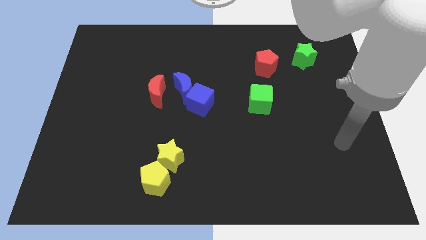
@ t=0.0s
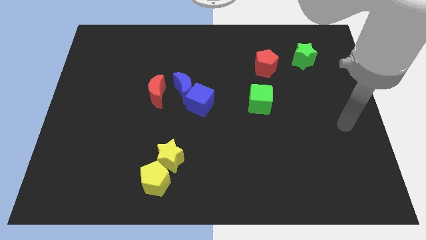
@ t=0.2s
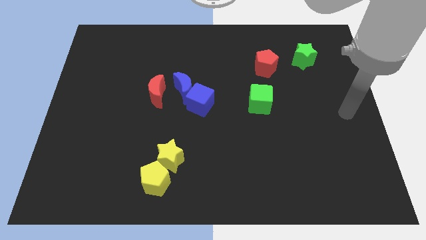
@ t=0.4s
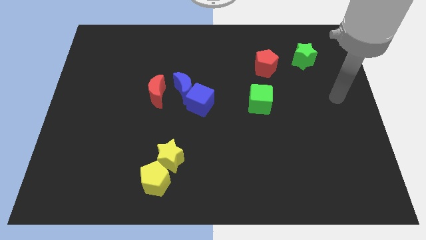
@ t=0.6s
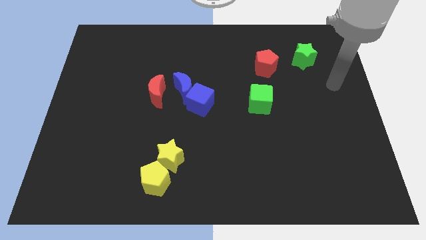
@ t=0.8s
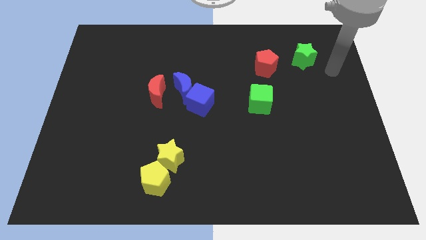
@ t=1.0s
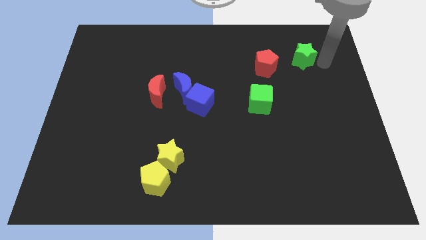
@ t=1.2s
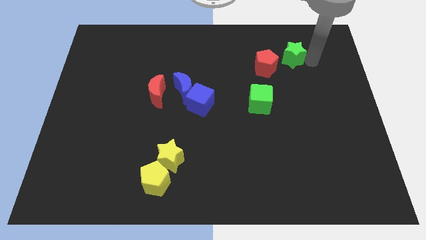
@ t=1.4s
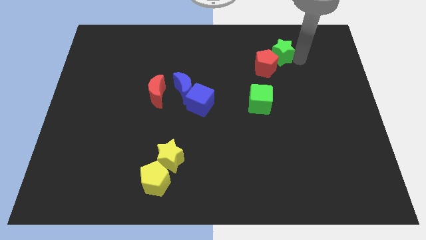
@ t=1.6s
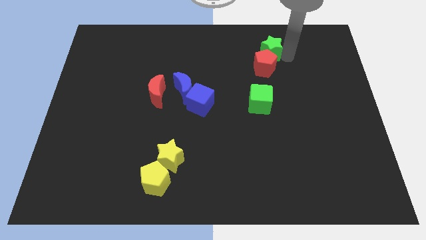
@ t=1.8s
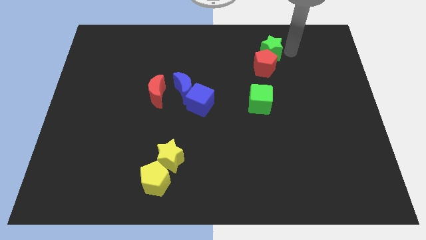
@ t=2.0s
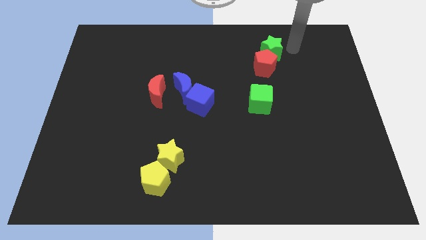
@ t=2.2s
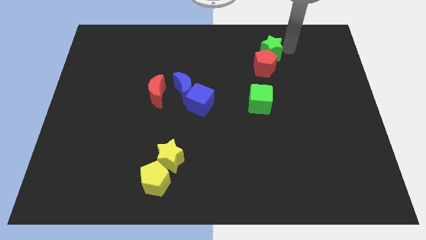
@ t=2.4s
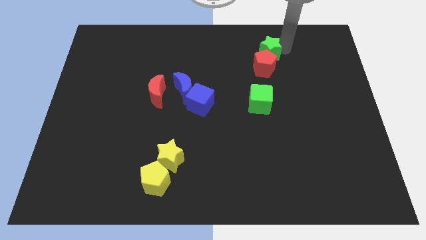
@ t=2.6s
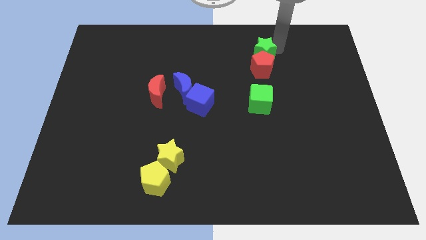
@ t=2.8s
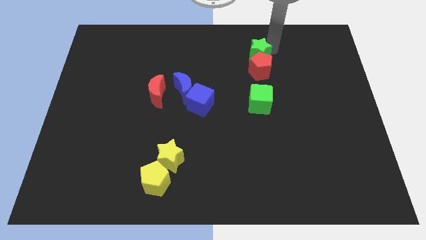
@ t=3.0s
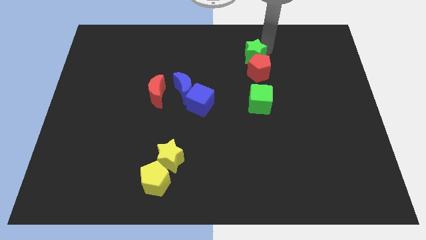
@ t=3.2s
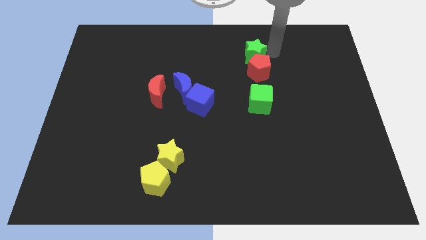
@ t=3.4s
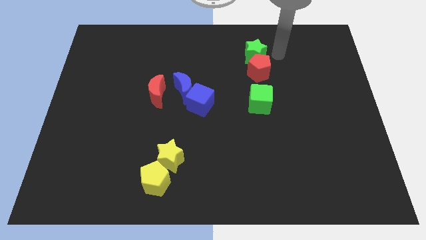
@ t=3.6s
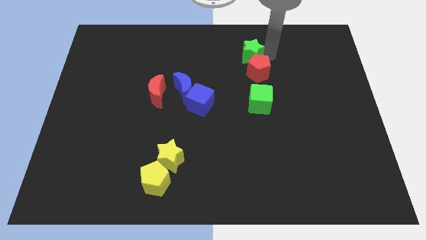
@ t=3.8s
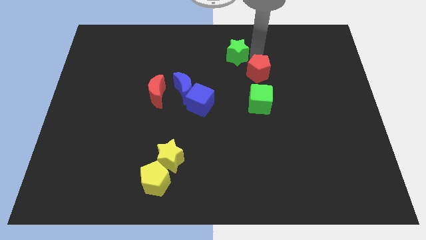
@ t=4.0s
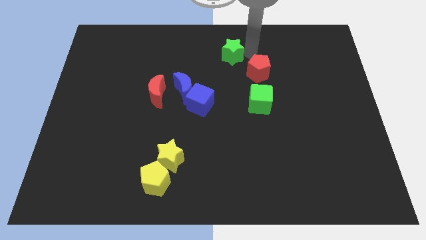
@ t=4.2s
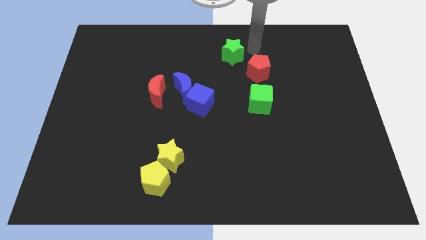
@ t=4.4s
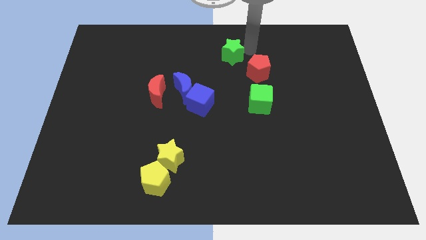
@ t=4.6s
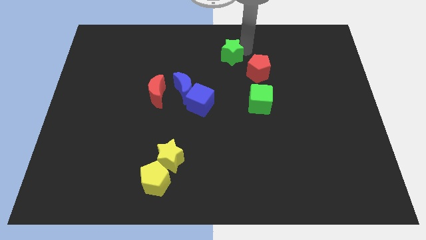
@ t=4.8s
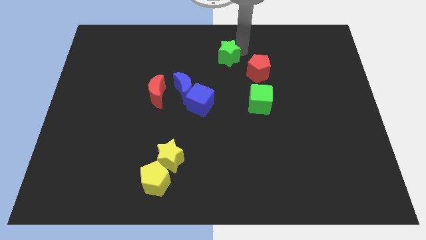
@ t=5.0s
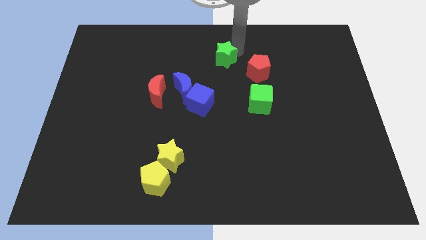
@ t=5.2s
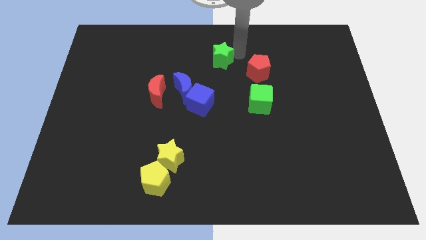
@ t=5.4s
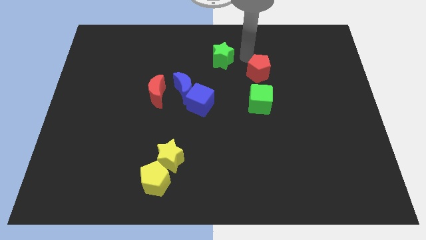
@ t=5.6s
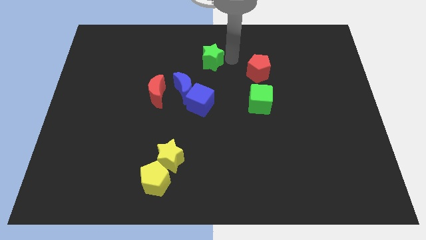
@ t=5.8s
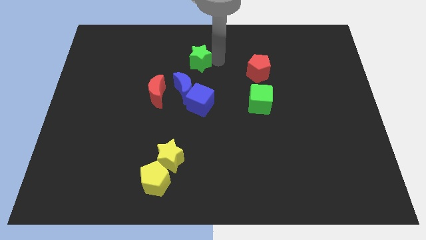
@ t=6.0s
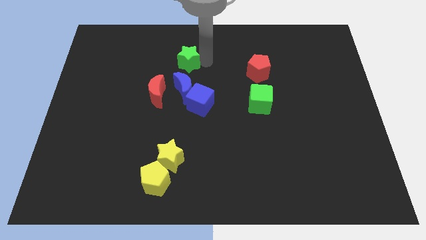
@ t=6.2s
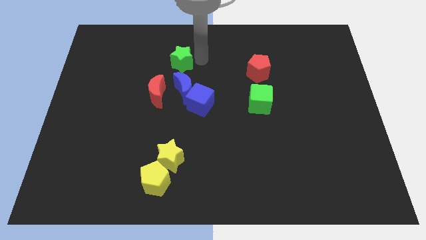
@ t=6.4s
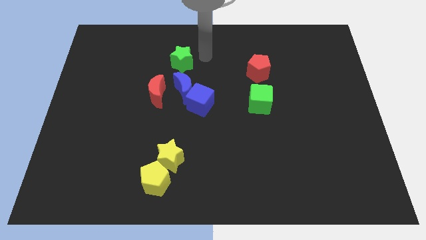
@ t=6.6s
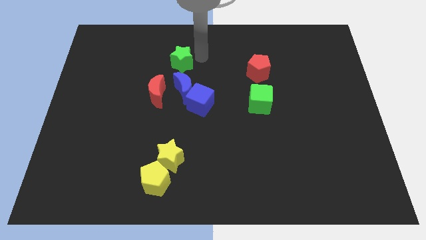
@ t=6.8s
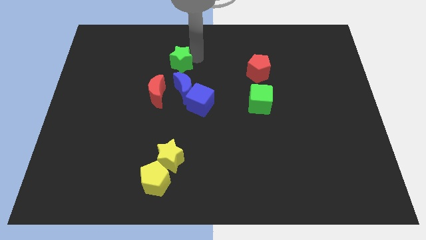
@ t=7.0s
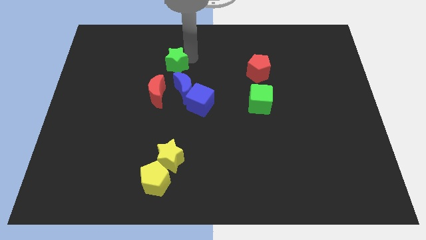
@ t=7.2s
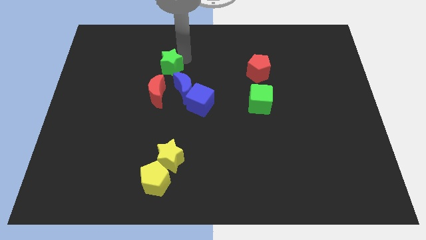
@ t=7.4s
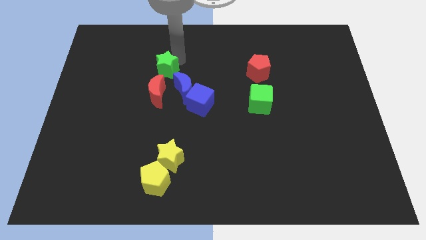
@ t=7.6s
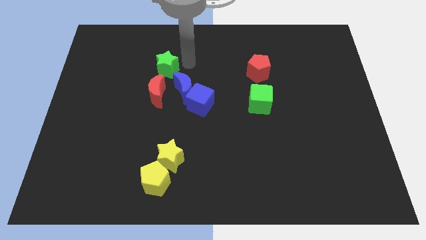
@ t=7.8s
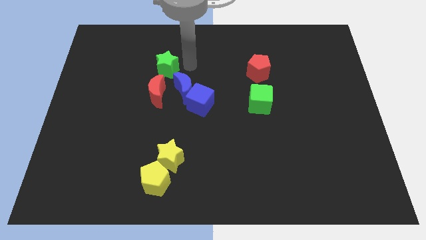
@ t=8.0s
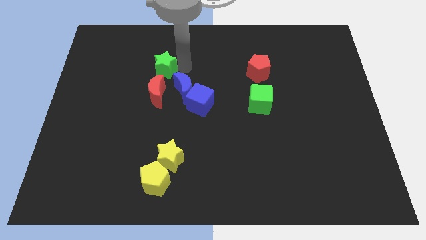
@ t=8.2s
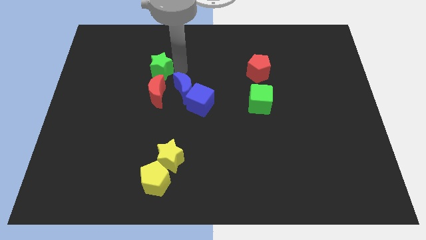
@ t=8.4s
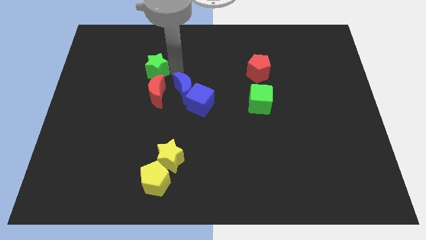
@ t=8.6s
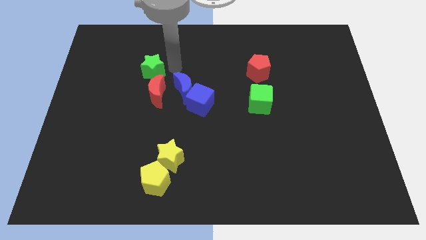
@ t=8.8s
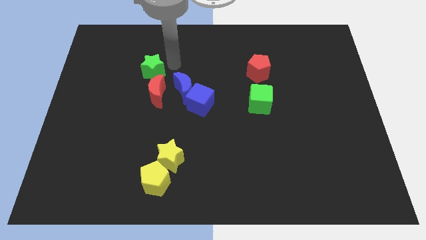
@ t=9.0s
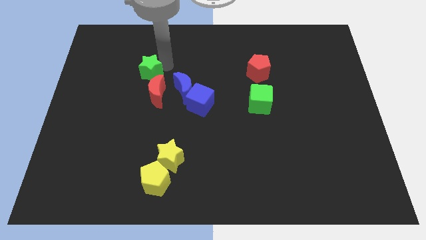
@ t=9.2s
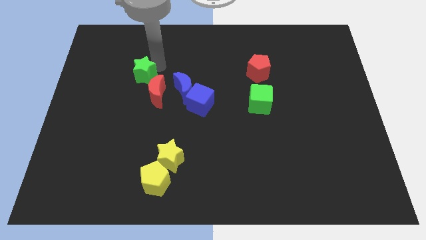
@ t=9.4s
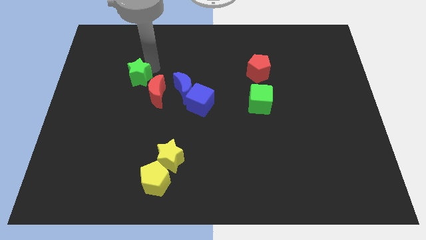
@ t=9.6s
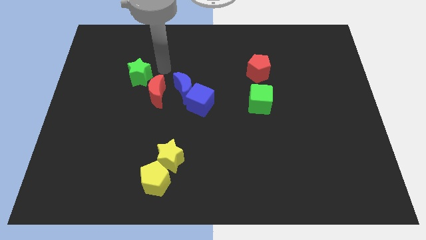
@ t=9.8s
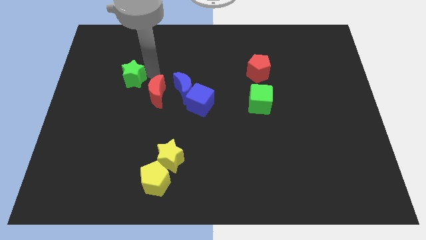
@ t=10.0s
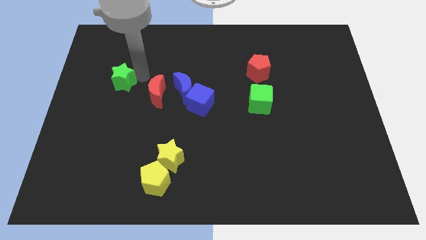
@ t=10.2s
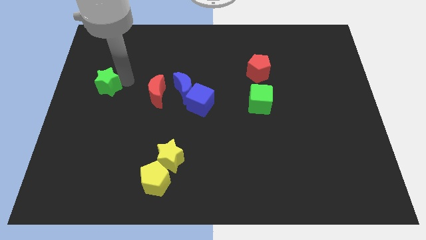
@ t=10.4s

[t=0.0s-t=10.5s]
push the green star to the left side of the board

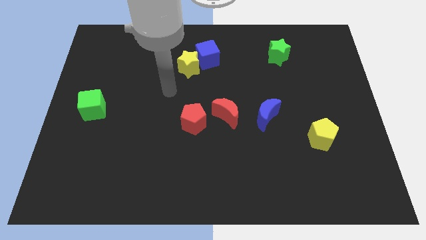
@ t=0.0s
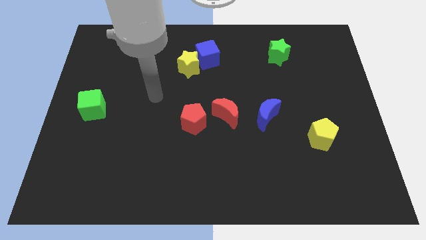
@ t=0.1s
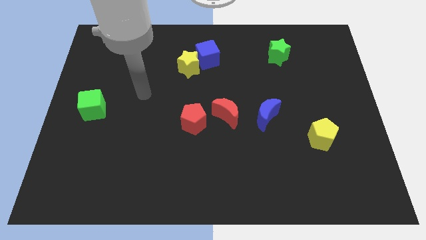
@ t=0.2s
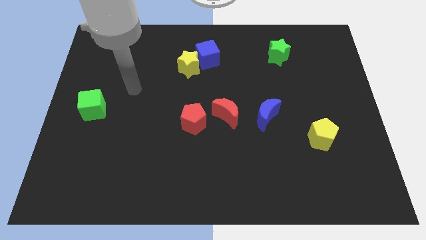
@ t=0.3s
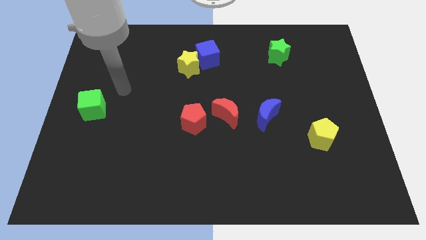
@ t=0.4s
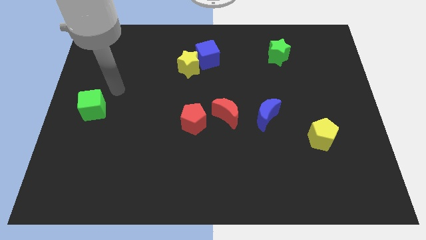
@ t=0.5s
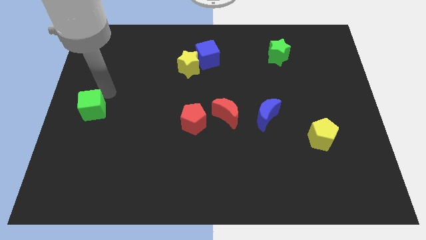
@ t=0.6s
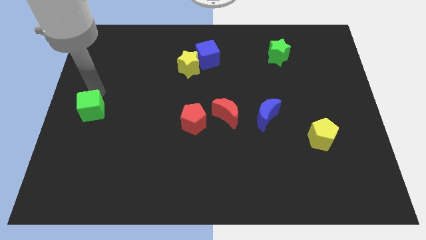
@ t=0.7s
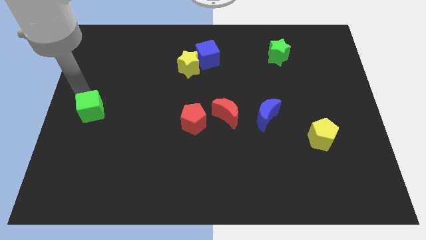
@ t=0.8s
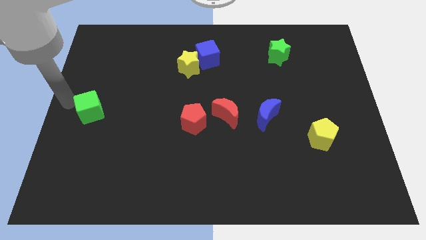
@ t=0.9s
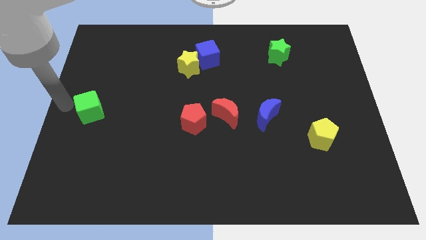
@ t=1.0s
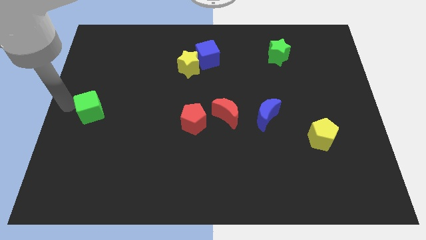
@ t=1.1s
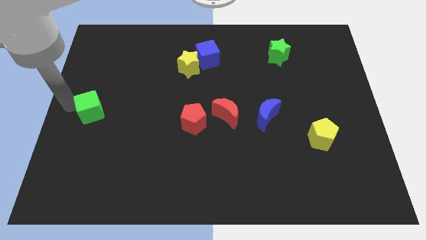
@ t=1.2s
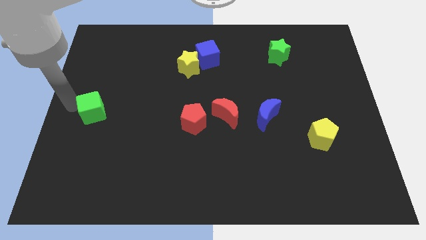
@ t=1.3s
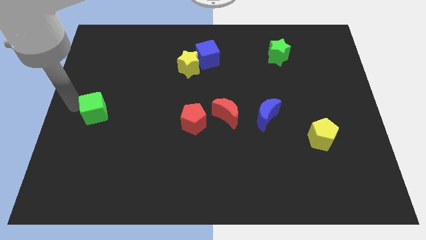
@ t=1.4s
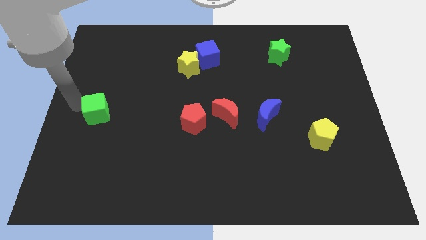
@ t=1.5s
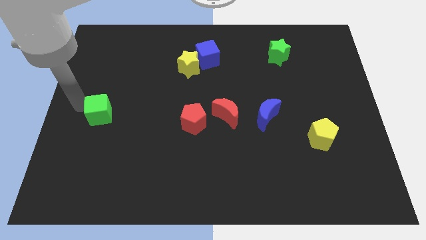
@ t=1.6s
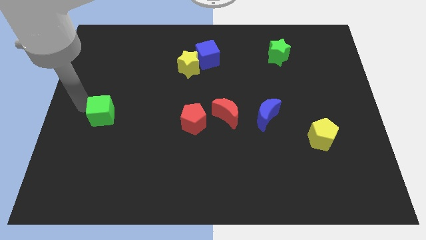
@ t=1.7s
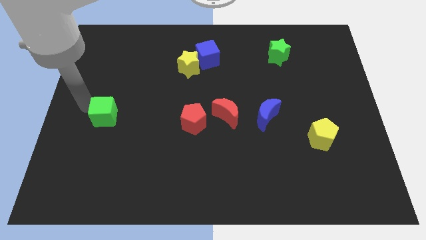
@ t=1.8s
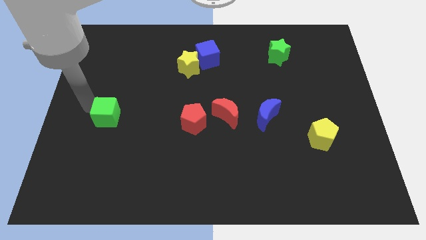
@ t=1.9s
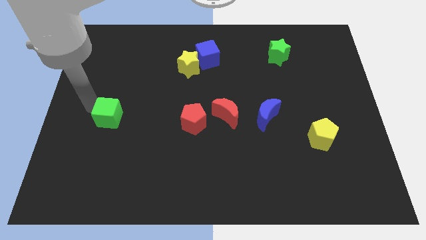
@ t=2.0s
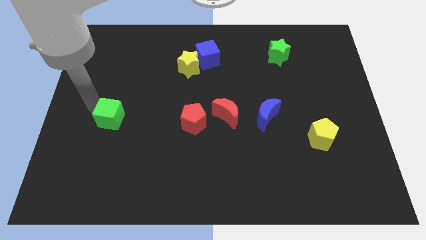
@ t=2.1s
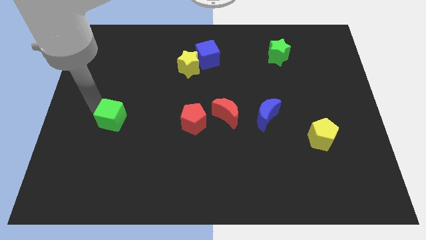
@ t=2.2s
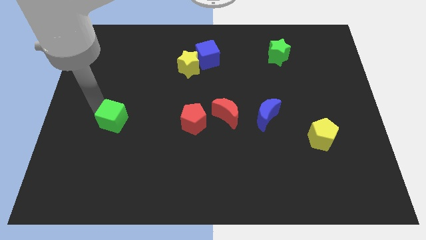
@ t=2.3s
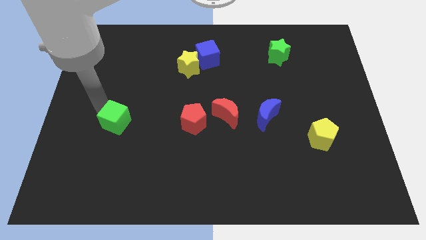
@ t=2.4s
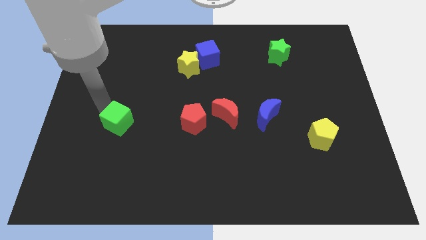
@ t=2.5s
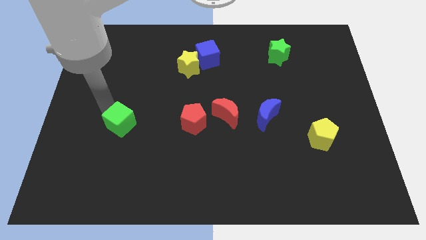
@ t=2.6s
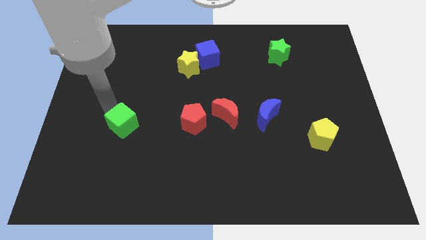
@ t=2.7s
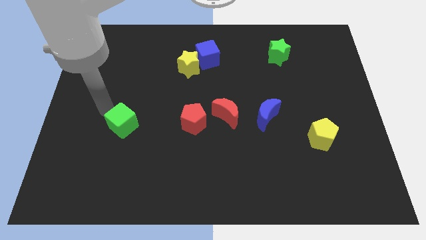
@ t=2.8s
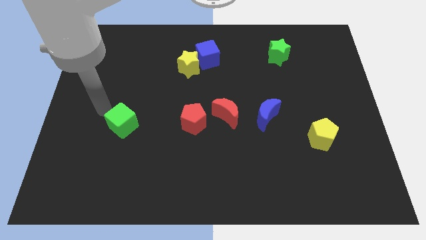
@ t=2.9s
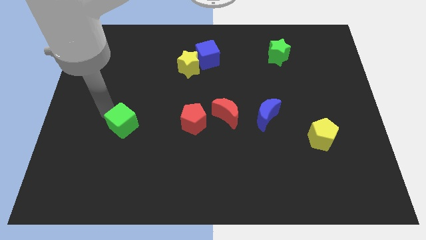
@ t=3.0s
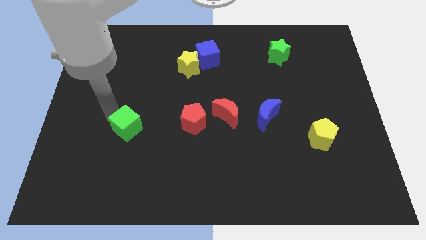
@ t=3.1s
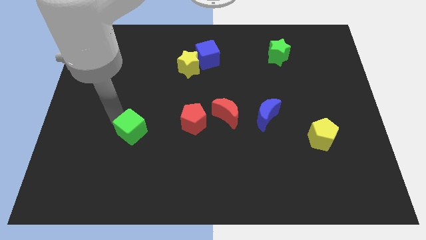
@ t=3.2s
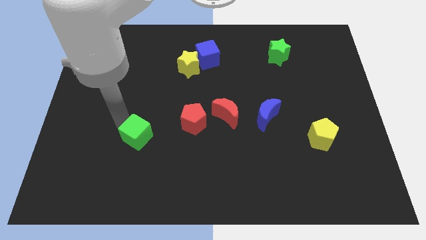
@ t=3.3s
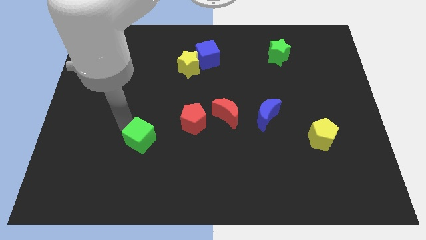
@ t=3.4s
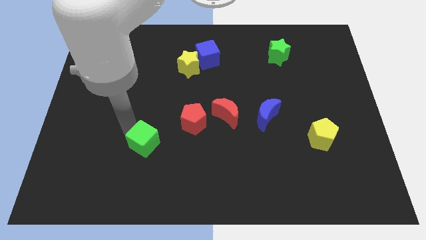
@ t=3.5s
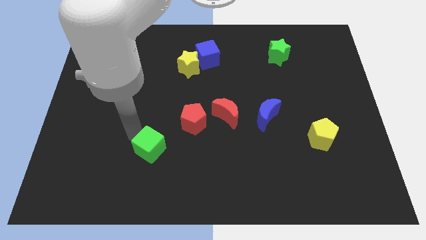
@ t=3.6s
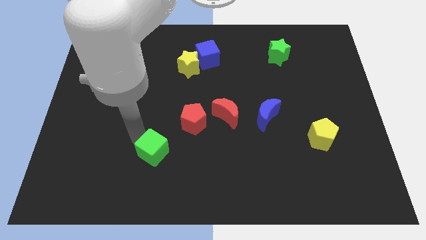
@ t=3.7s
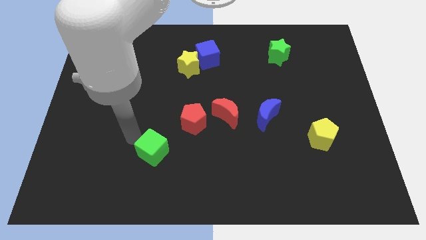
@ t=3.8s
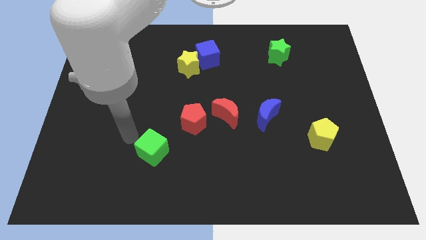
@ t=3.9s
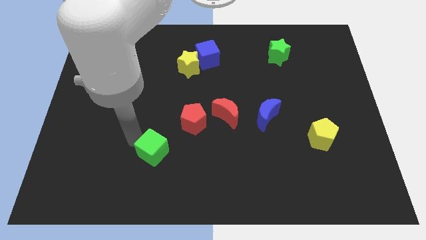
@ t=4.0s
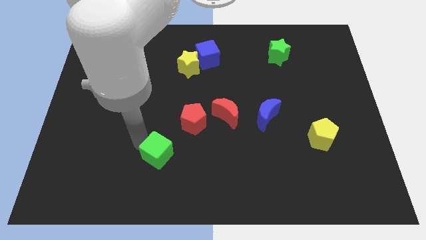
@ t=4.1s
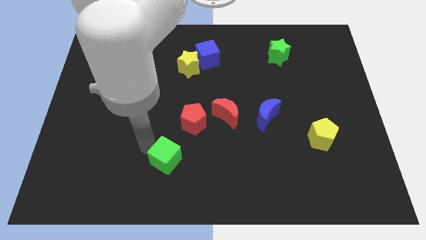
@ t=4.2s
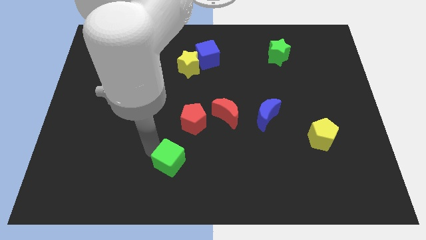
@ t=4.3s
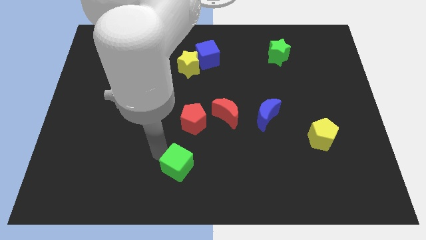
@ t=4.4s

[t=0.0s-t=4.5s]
put the green cube to the bottom side
